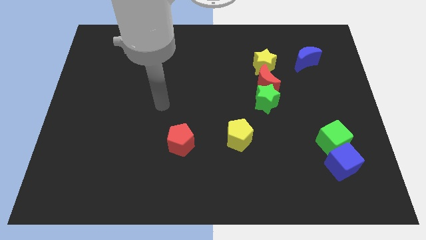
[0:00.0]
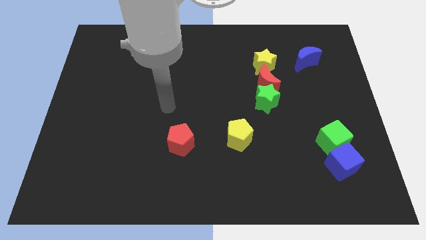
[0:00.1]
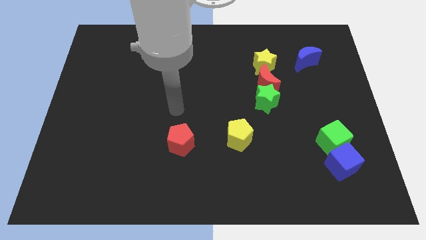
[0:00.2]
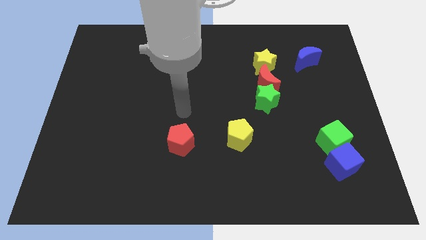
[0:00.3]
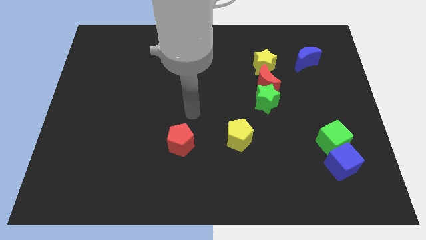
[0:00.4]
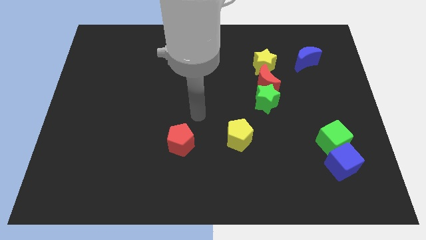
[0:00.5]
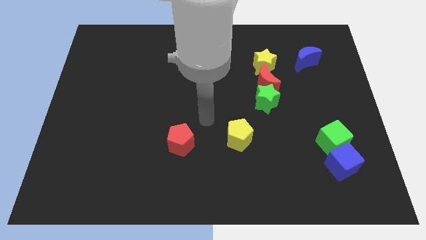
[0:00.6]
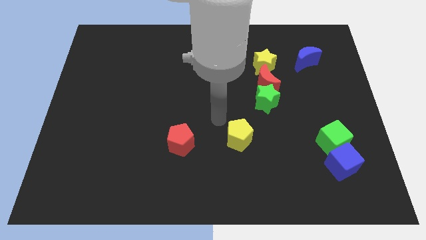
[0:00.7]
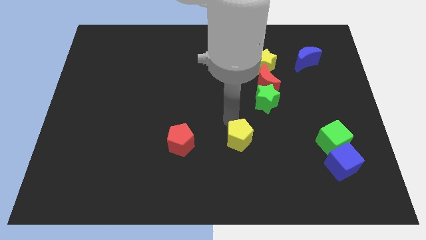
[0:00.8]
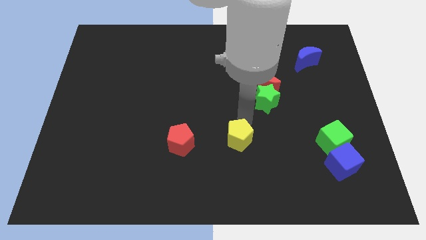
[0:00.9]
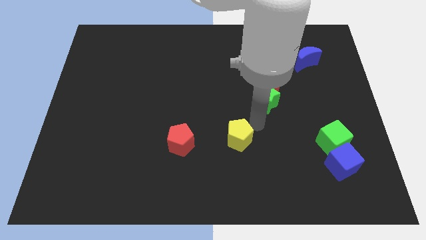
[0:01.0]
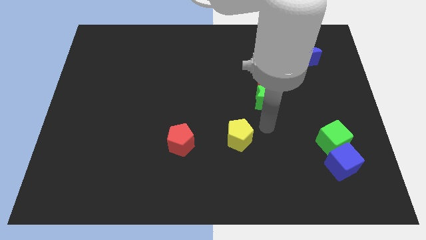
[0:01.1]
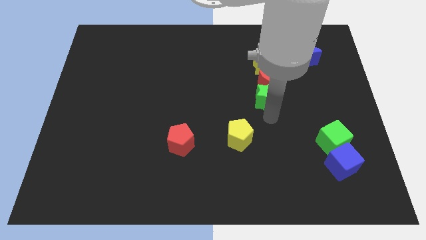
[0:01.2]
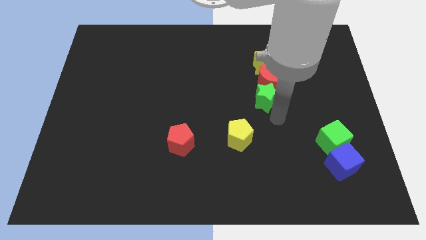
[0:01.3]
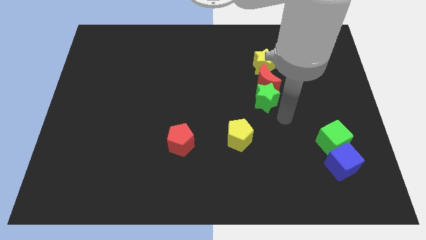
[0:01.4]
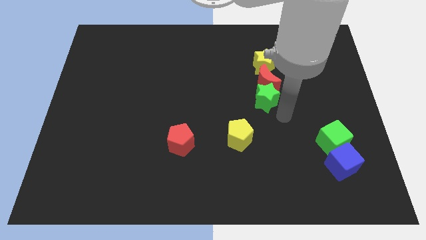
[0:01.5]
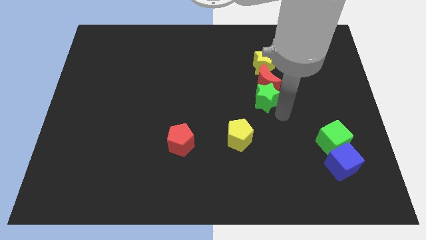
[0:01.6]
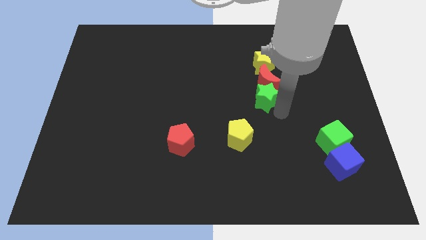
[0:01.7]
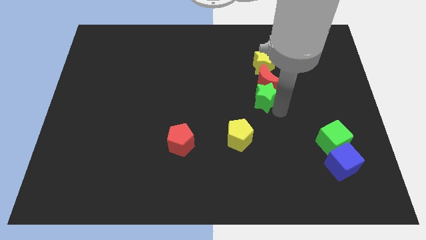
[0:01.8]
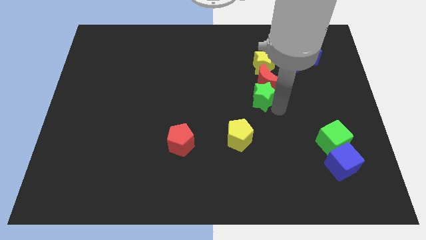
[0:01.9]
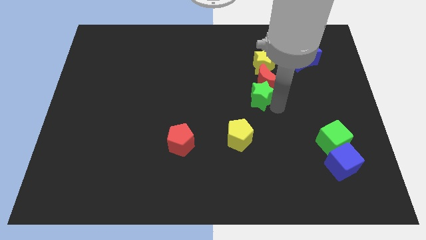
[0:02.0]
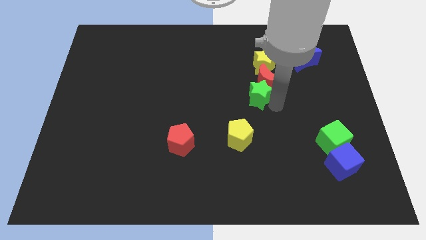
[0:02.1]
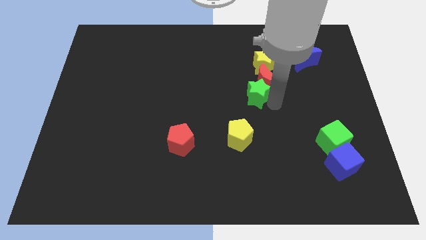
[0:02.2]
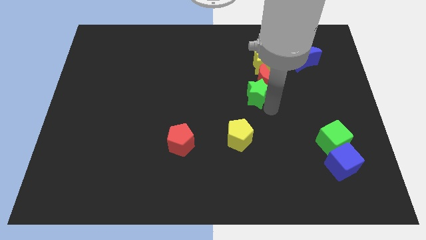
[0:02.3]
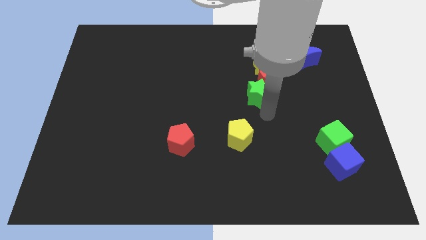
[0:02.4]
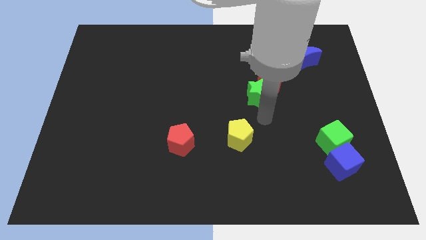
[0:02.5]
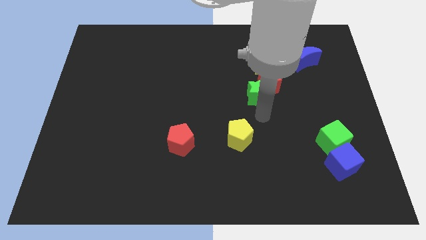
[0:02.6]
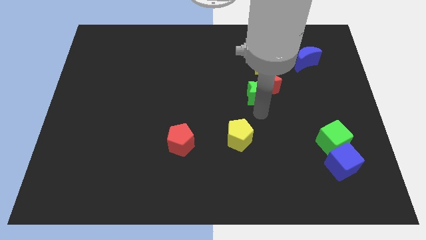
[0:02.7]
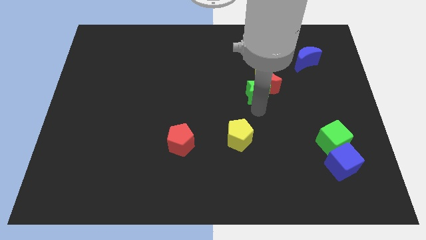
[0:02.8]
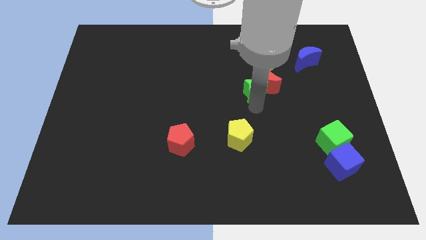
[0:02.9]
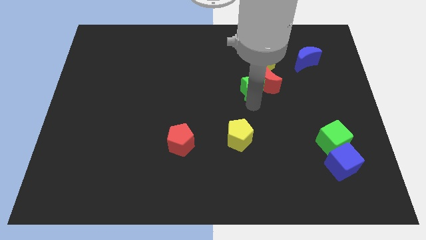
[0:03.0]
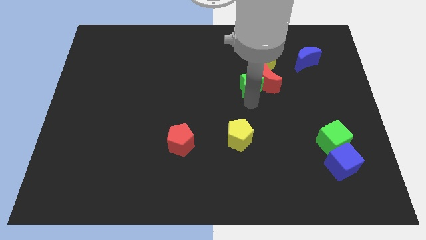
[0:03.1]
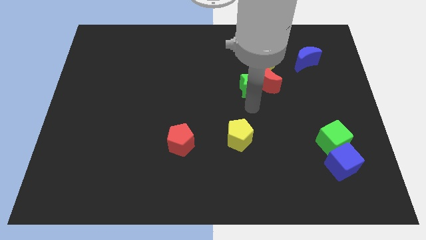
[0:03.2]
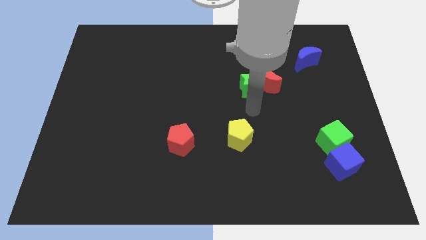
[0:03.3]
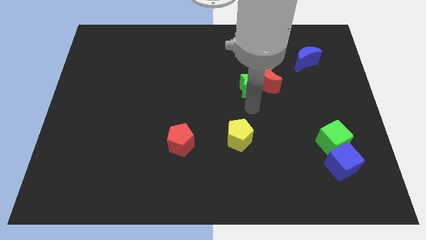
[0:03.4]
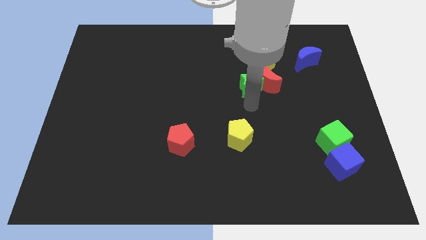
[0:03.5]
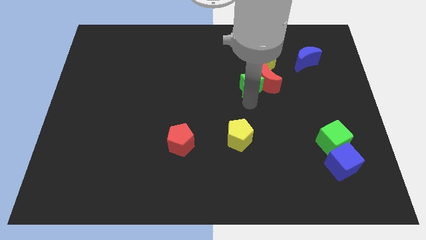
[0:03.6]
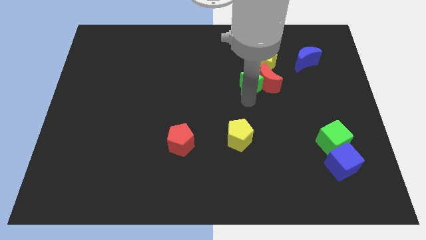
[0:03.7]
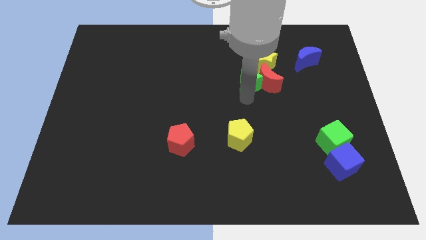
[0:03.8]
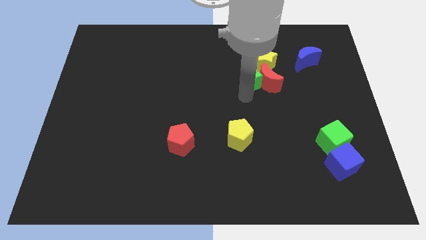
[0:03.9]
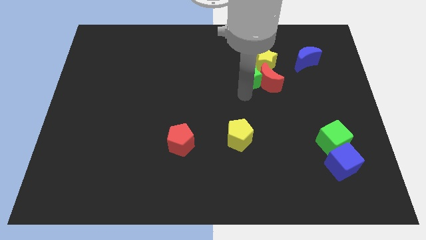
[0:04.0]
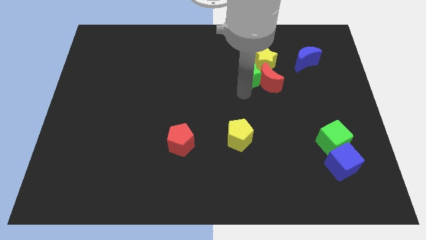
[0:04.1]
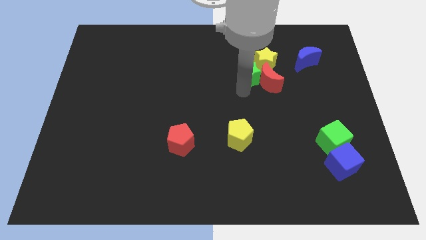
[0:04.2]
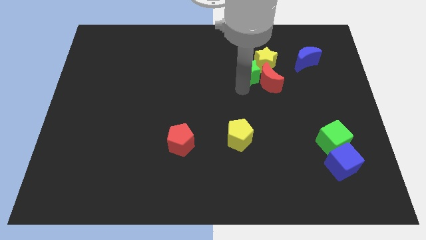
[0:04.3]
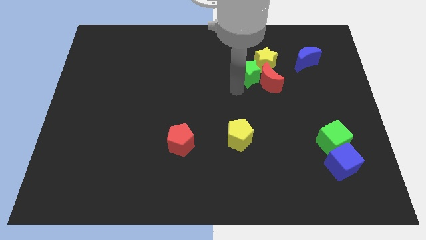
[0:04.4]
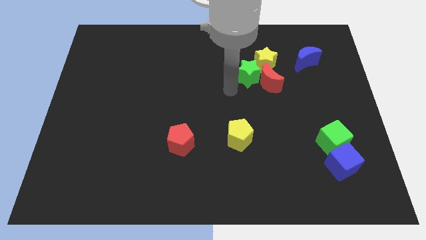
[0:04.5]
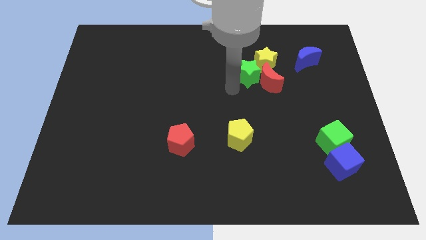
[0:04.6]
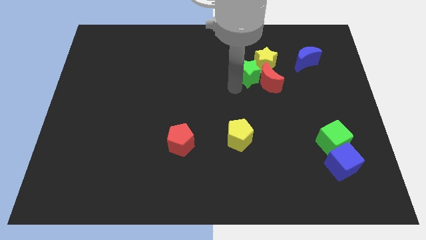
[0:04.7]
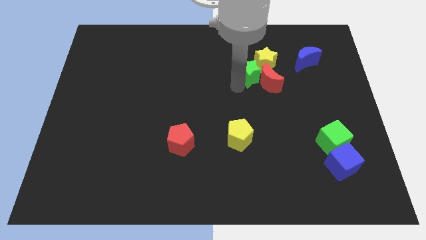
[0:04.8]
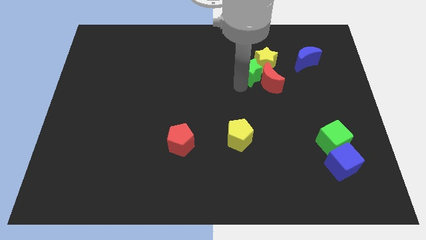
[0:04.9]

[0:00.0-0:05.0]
push the green star to the yellow star

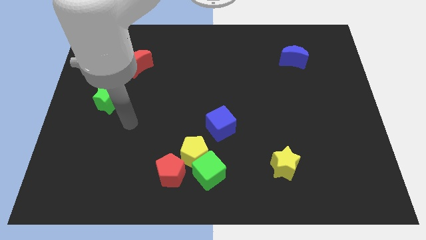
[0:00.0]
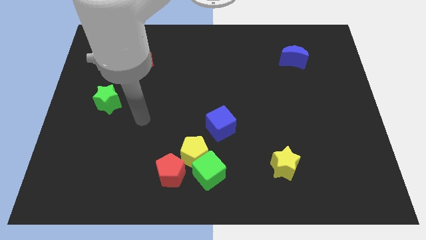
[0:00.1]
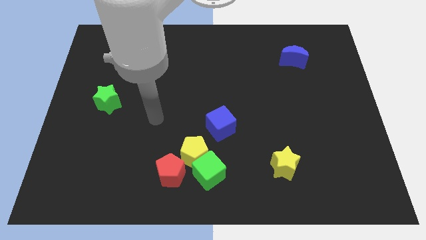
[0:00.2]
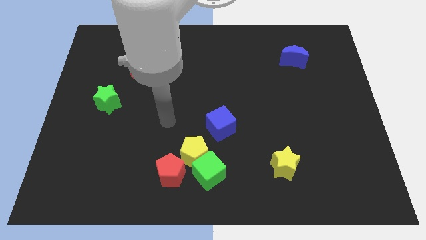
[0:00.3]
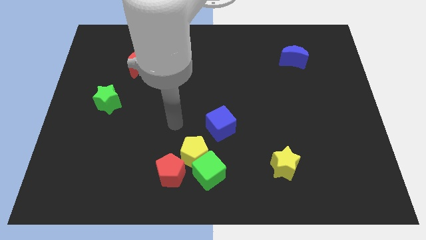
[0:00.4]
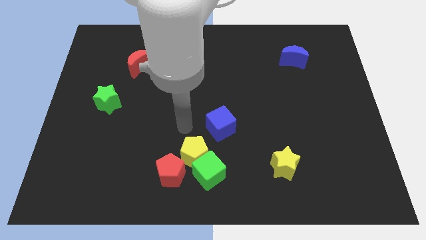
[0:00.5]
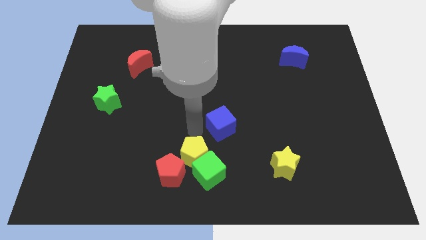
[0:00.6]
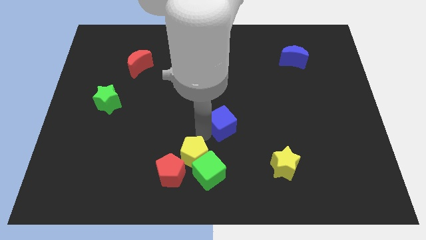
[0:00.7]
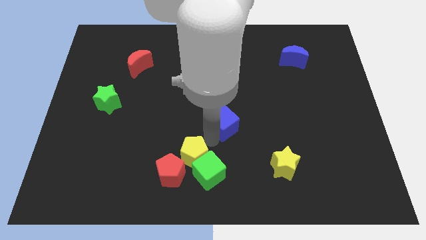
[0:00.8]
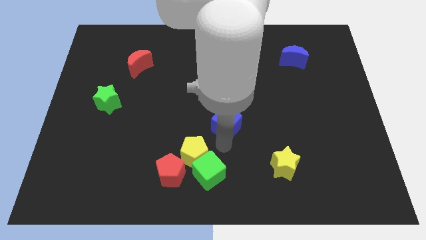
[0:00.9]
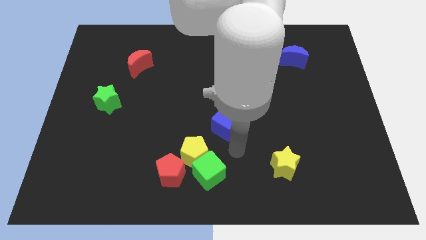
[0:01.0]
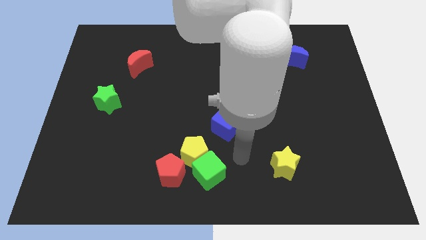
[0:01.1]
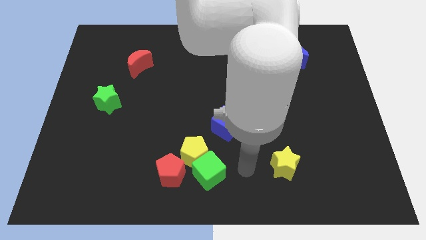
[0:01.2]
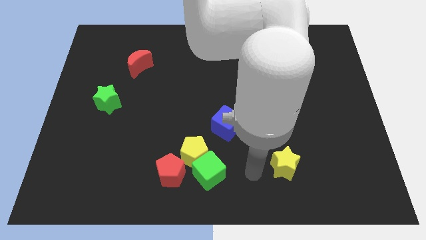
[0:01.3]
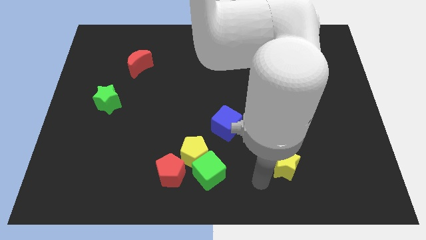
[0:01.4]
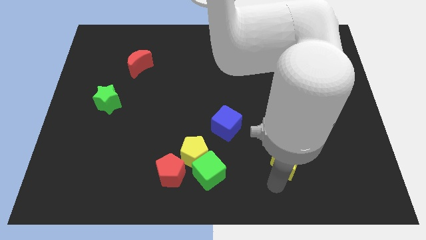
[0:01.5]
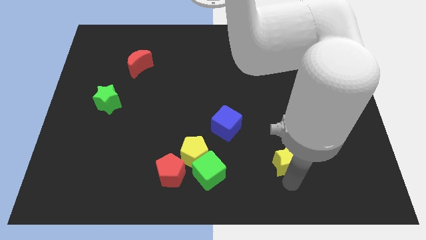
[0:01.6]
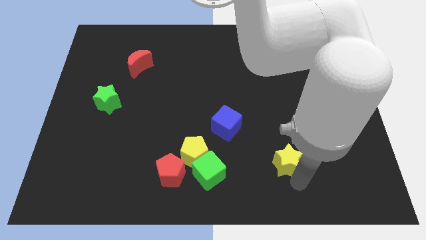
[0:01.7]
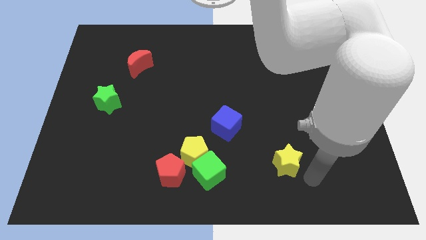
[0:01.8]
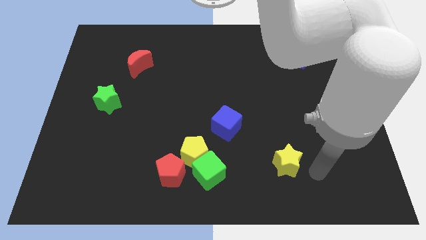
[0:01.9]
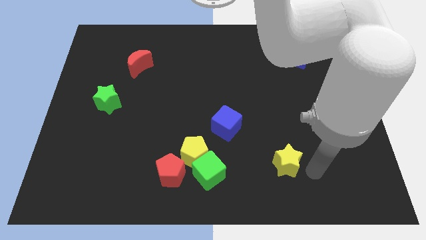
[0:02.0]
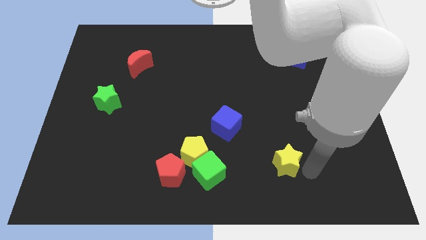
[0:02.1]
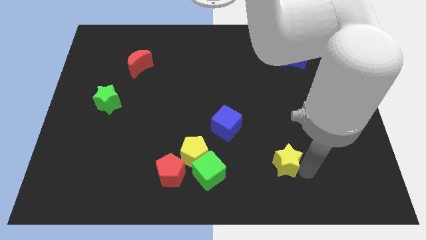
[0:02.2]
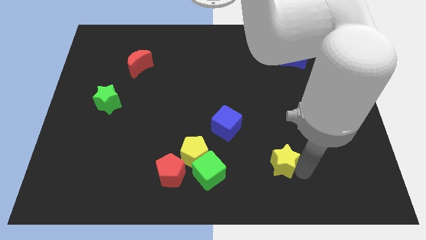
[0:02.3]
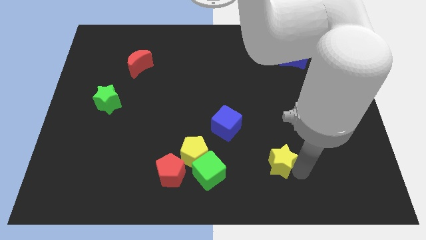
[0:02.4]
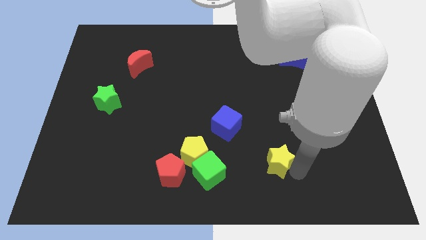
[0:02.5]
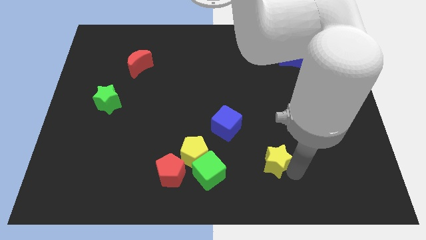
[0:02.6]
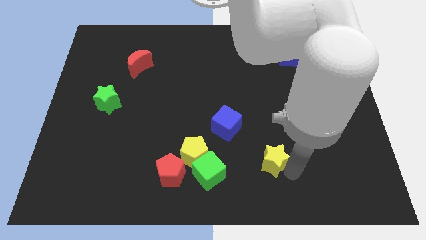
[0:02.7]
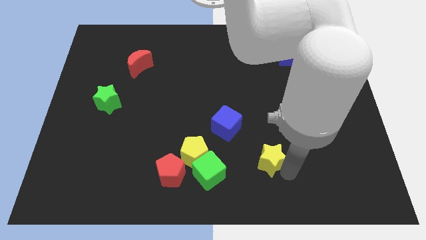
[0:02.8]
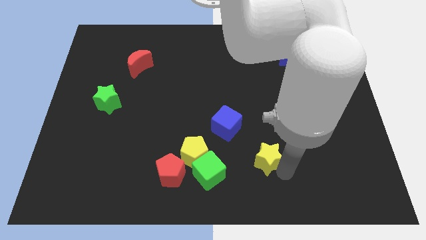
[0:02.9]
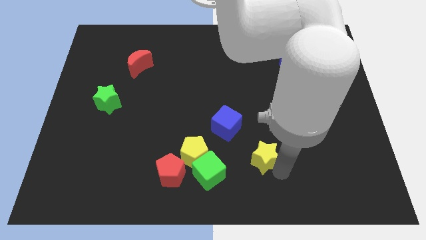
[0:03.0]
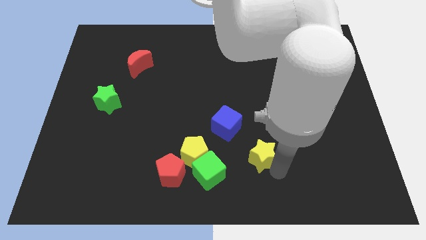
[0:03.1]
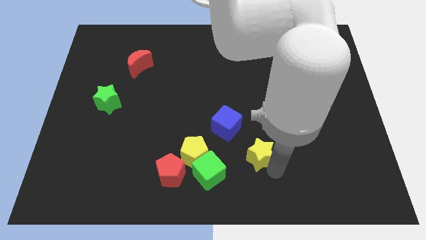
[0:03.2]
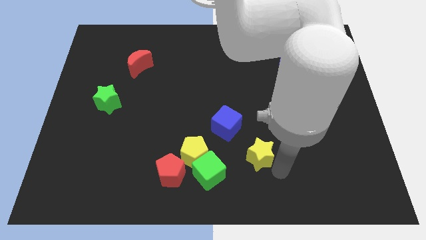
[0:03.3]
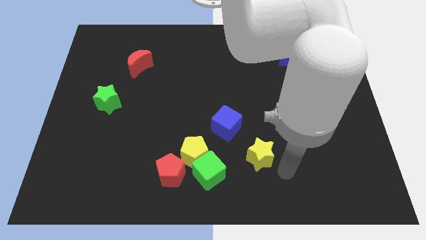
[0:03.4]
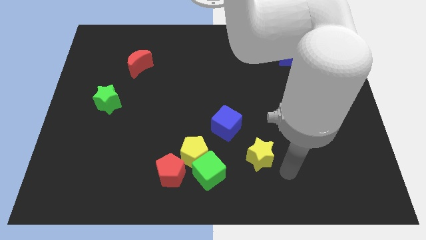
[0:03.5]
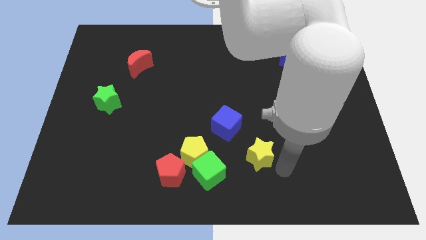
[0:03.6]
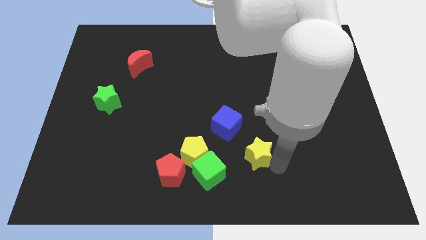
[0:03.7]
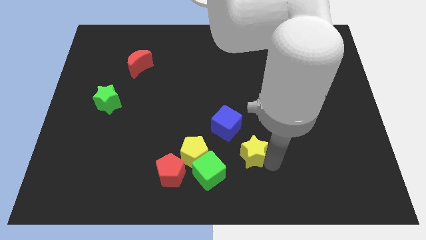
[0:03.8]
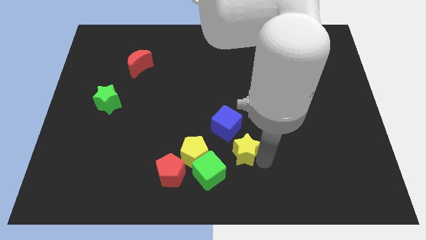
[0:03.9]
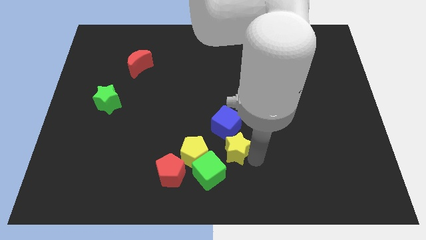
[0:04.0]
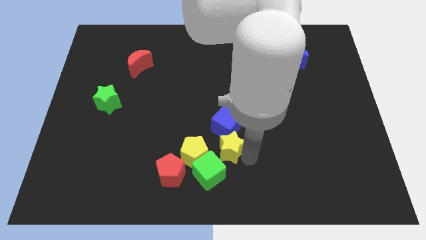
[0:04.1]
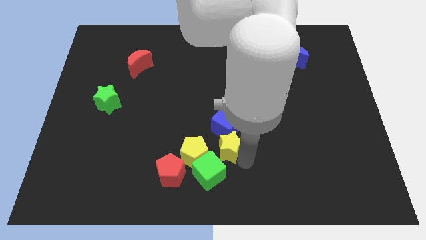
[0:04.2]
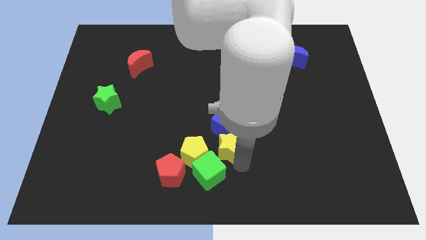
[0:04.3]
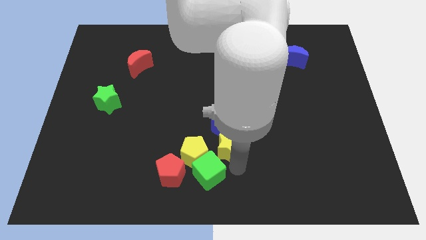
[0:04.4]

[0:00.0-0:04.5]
put the yellow star towards the blue cube
